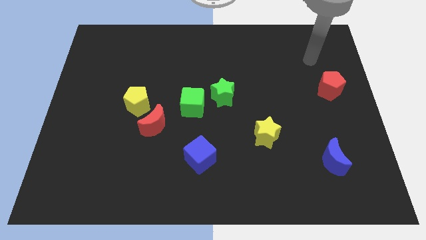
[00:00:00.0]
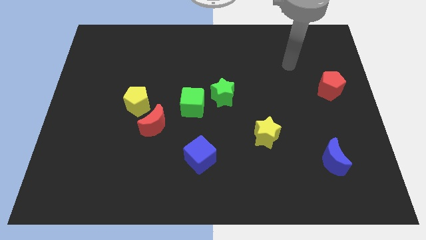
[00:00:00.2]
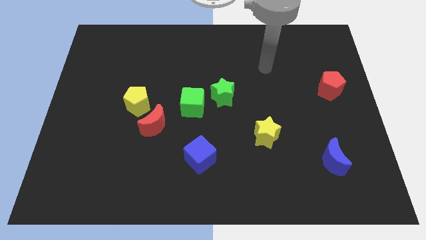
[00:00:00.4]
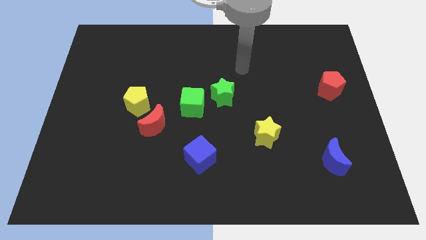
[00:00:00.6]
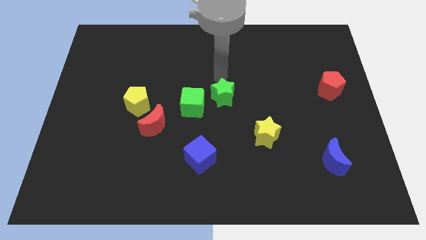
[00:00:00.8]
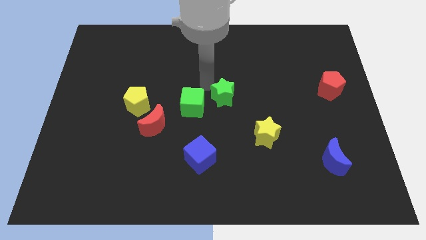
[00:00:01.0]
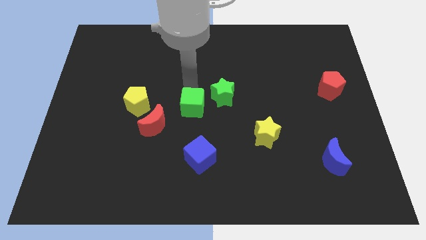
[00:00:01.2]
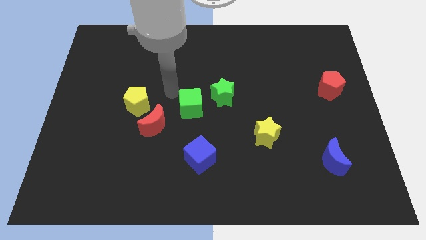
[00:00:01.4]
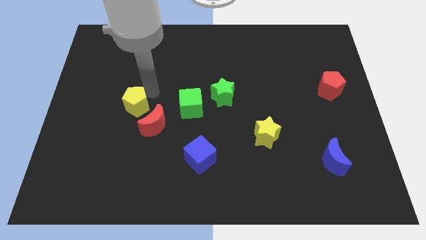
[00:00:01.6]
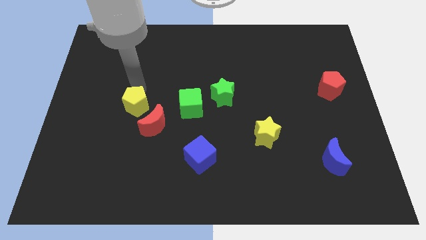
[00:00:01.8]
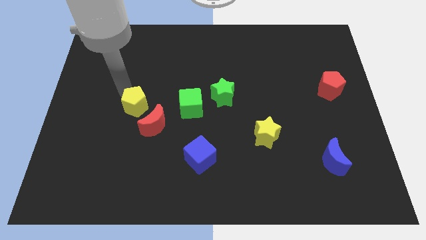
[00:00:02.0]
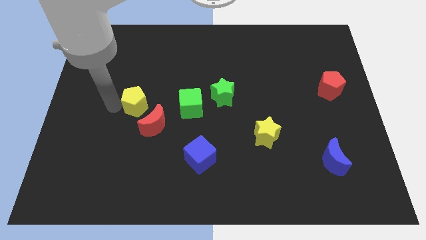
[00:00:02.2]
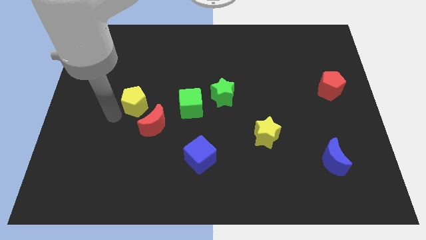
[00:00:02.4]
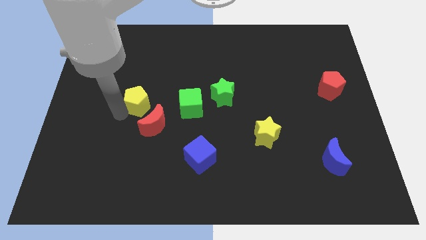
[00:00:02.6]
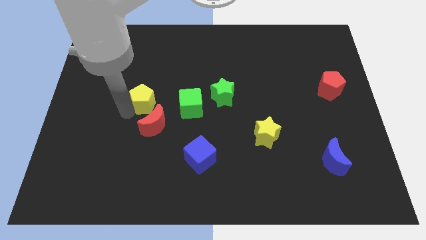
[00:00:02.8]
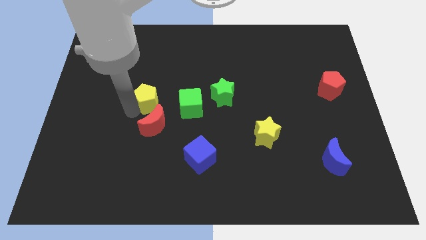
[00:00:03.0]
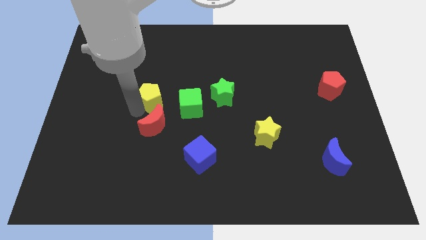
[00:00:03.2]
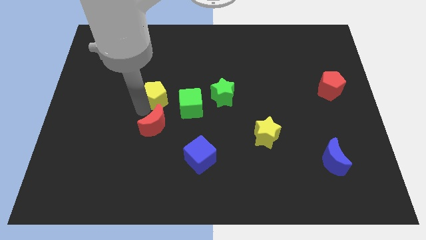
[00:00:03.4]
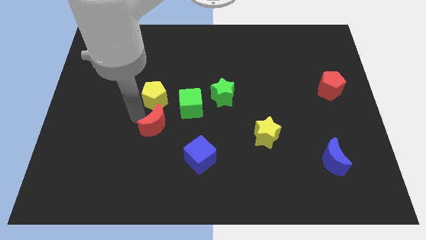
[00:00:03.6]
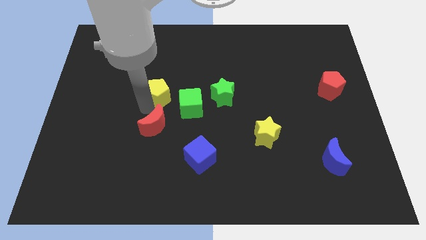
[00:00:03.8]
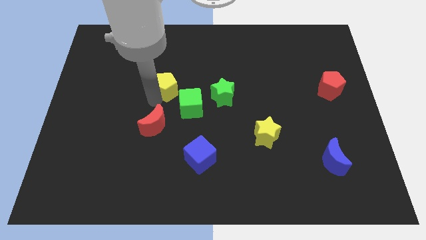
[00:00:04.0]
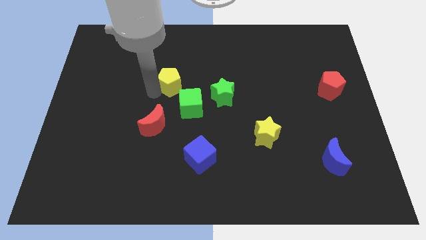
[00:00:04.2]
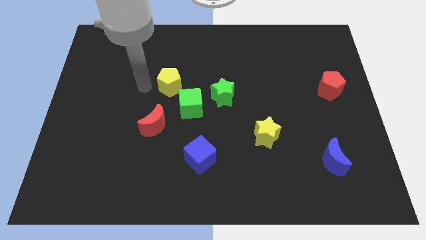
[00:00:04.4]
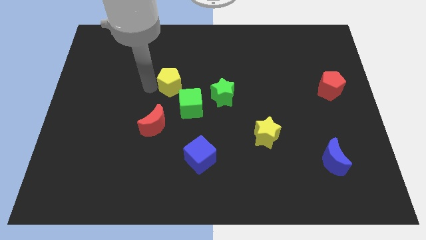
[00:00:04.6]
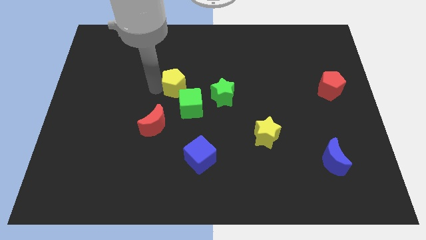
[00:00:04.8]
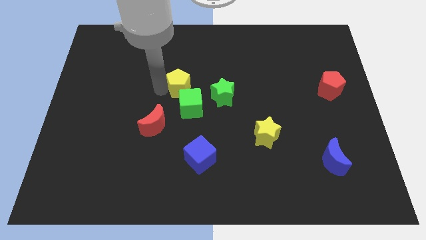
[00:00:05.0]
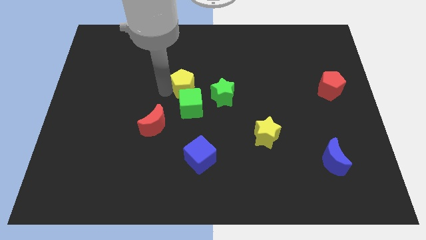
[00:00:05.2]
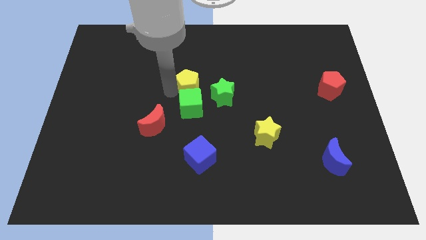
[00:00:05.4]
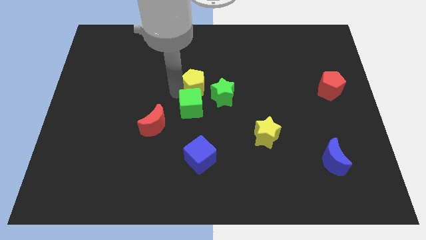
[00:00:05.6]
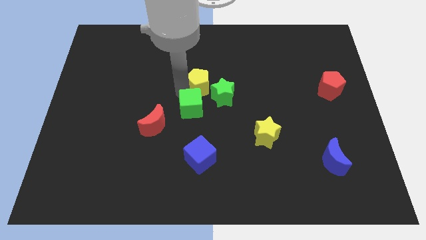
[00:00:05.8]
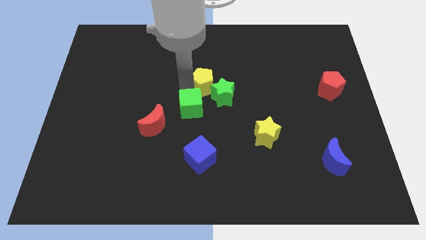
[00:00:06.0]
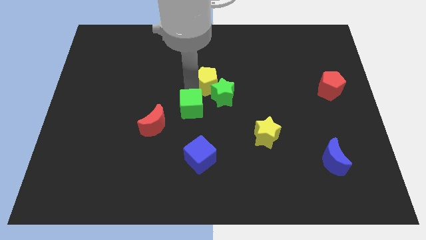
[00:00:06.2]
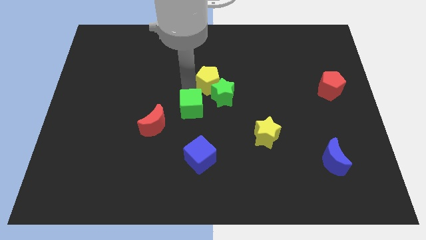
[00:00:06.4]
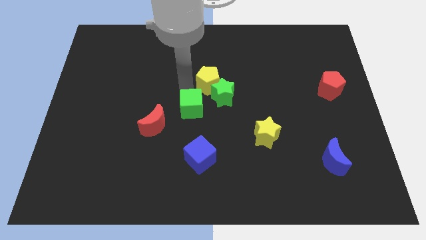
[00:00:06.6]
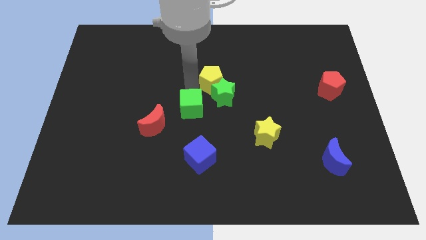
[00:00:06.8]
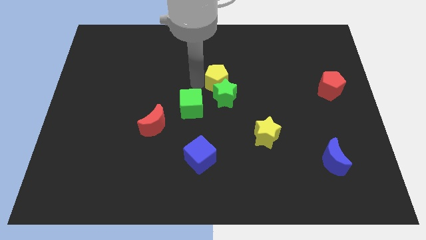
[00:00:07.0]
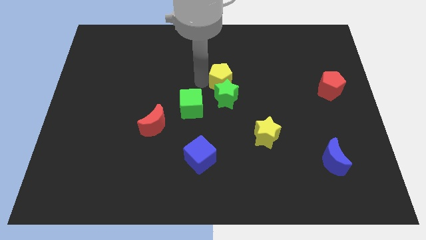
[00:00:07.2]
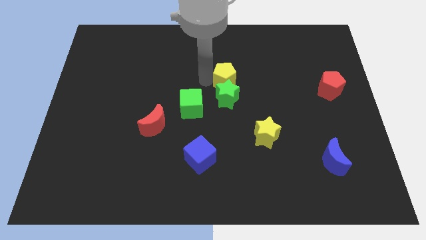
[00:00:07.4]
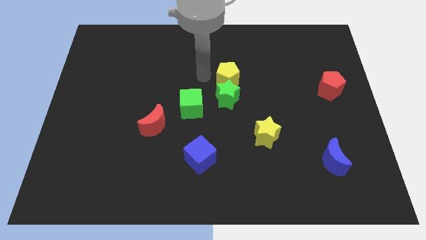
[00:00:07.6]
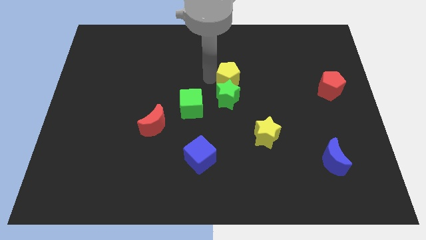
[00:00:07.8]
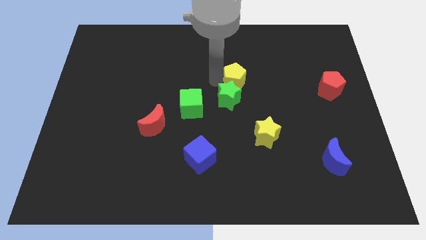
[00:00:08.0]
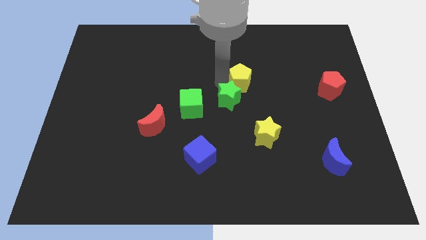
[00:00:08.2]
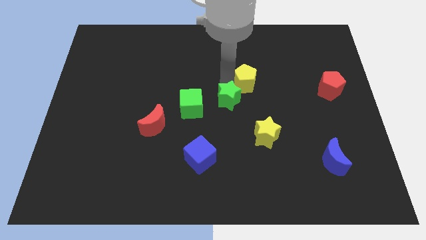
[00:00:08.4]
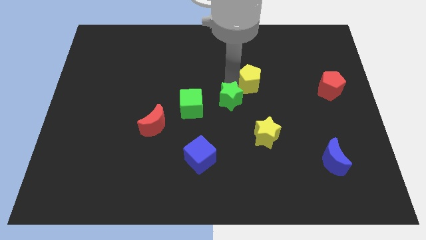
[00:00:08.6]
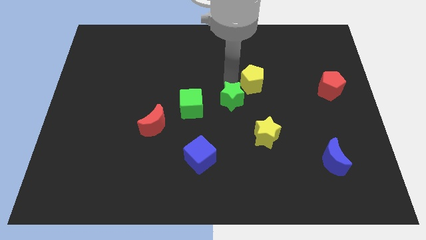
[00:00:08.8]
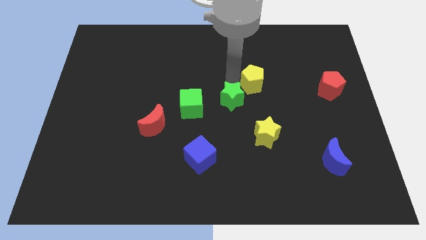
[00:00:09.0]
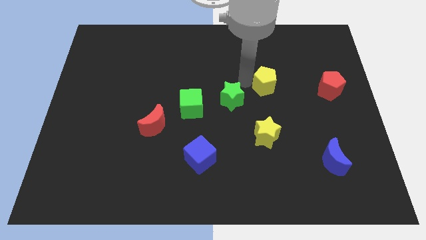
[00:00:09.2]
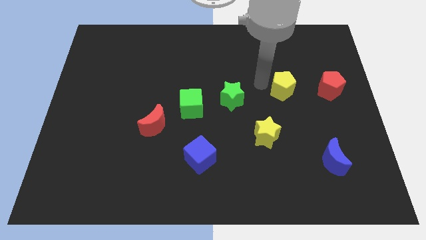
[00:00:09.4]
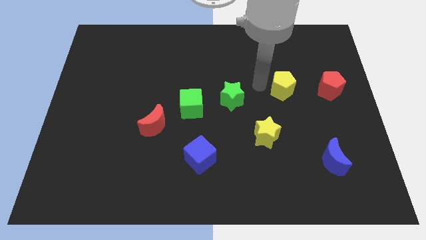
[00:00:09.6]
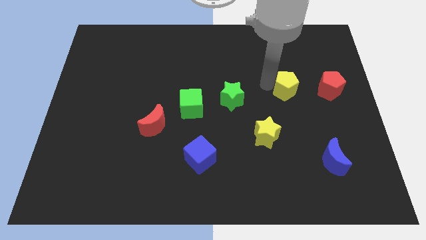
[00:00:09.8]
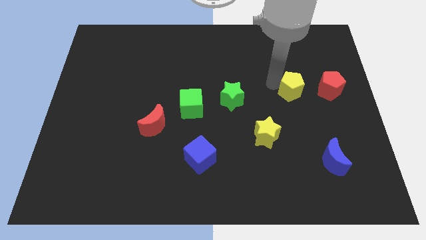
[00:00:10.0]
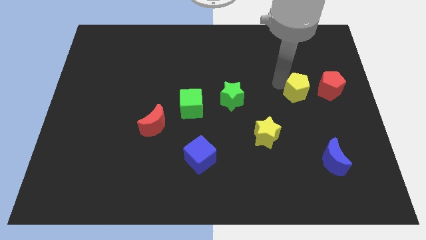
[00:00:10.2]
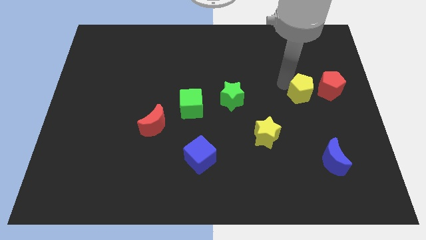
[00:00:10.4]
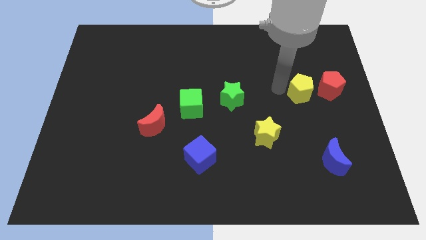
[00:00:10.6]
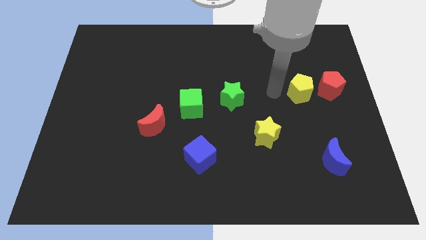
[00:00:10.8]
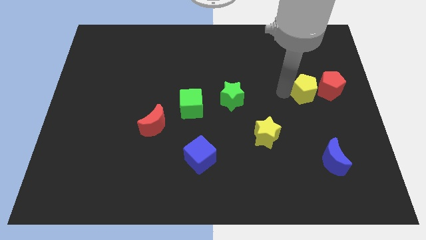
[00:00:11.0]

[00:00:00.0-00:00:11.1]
push the yellow pentagon towards the red pentagon
